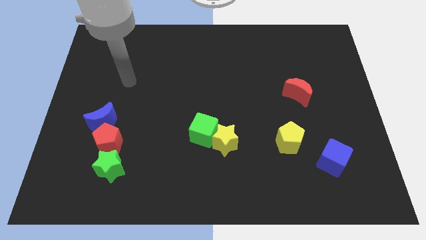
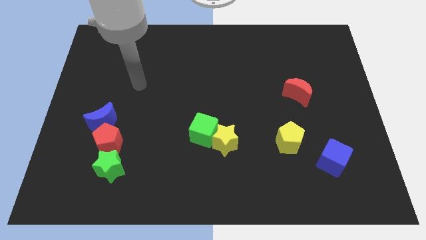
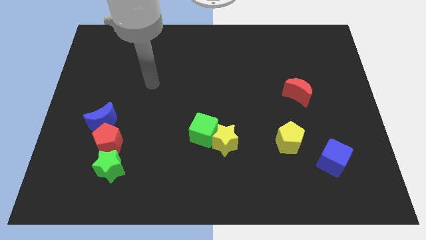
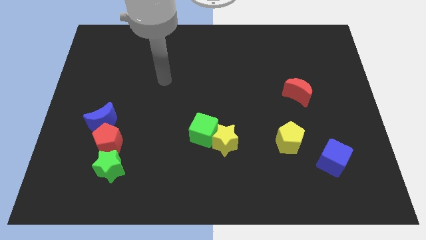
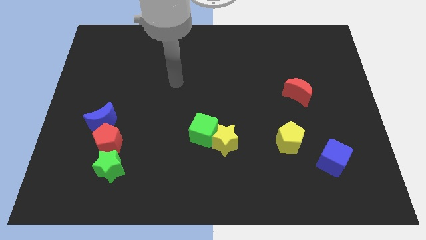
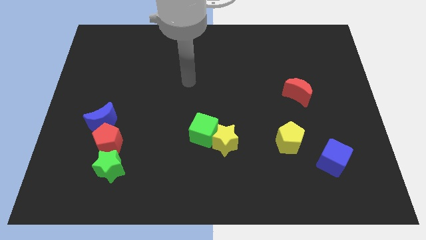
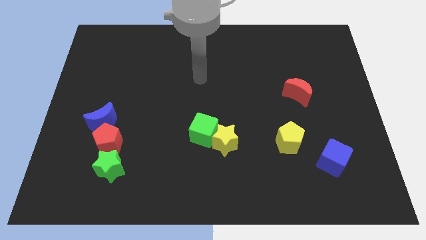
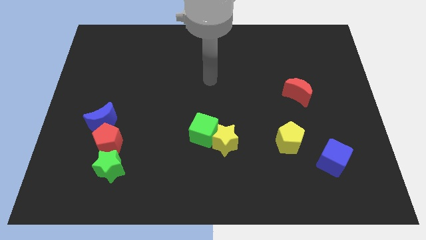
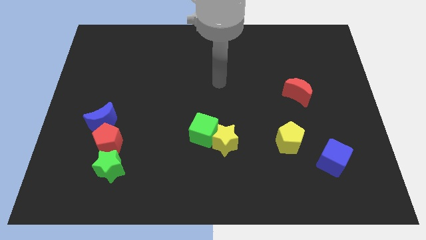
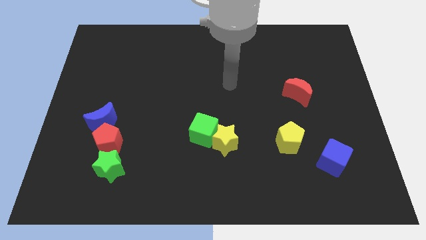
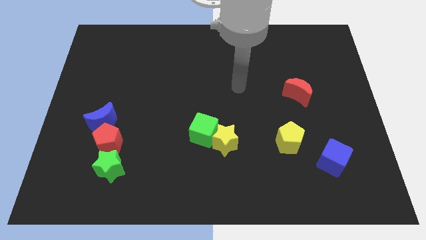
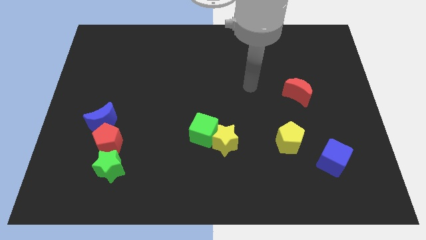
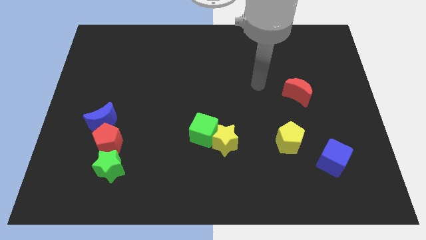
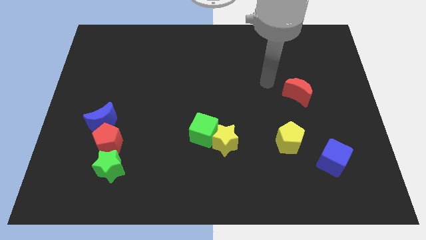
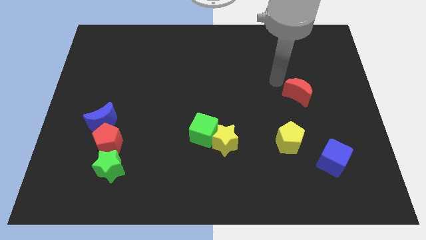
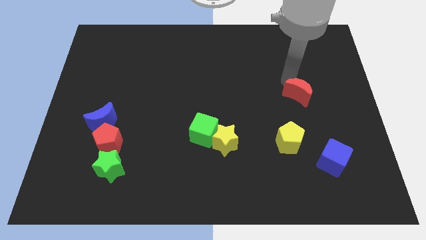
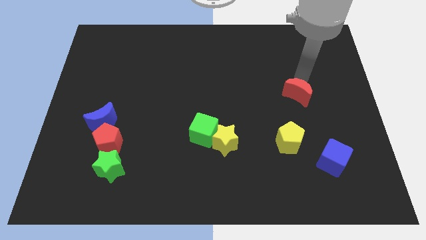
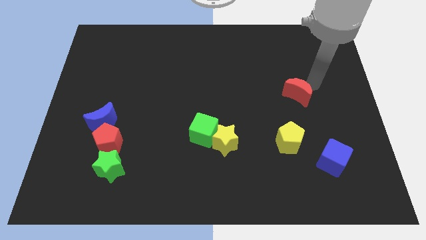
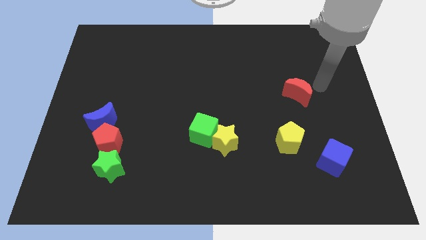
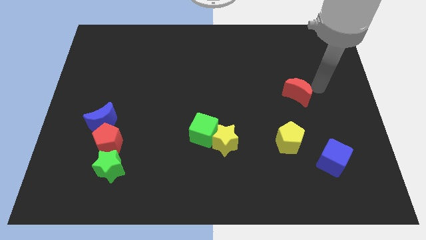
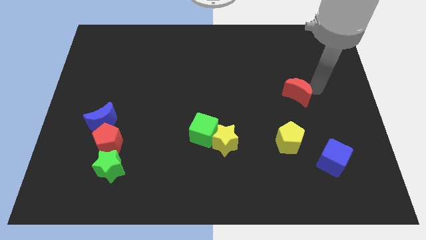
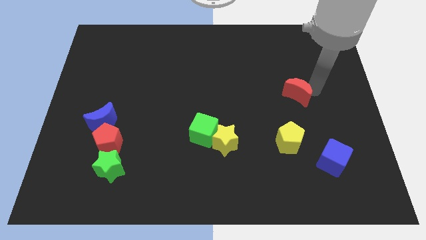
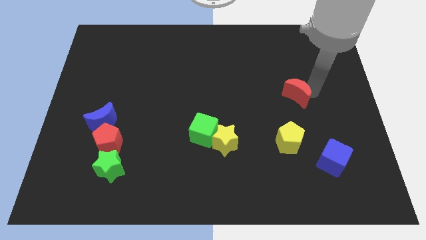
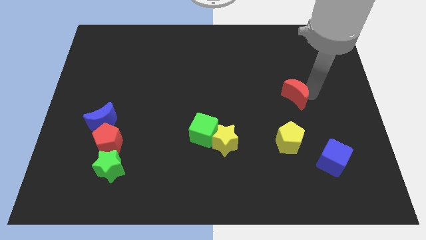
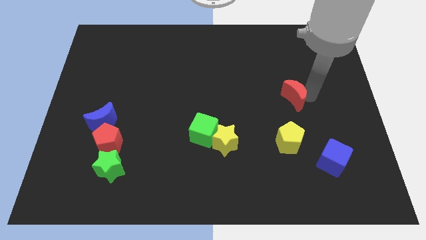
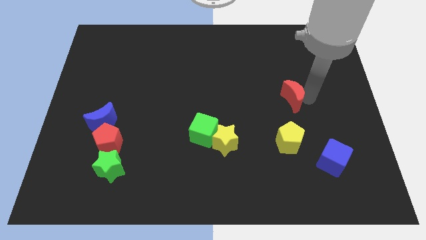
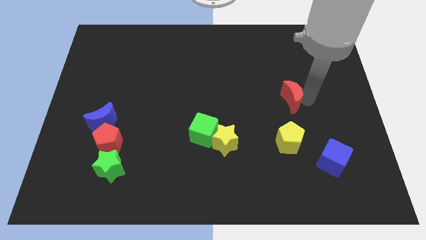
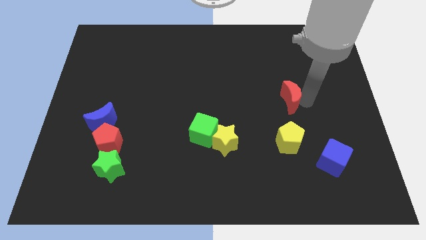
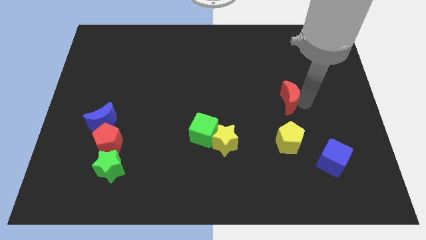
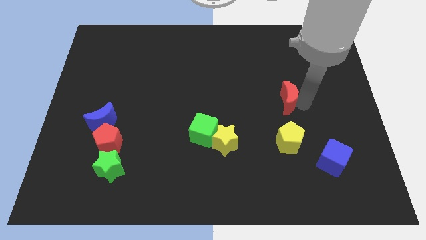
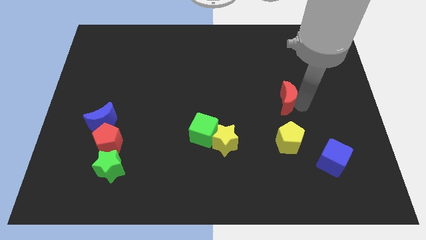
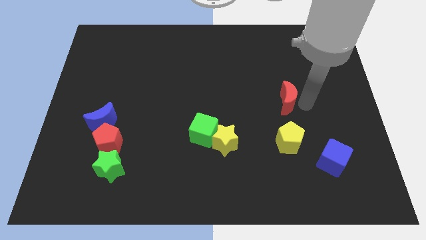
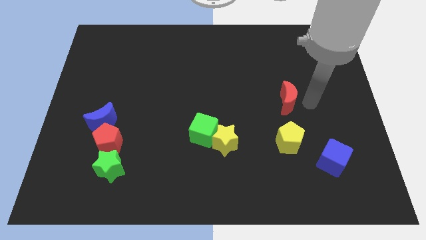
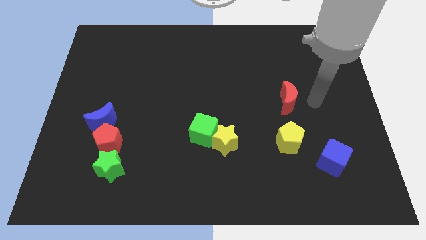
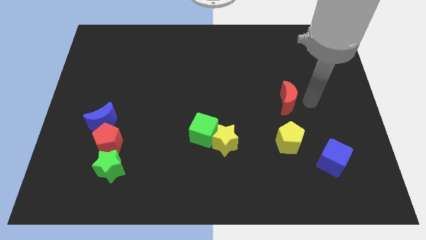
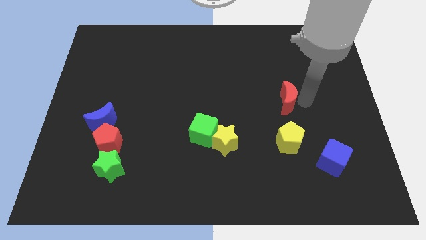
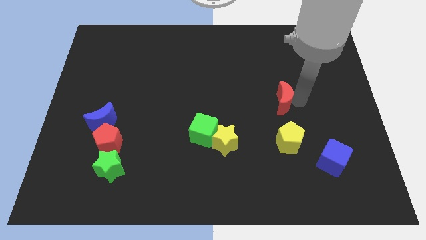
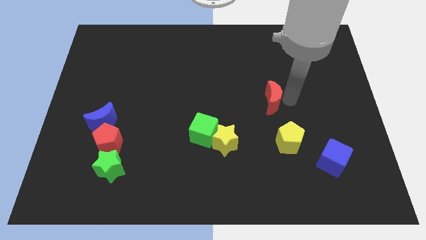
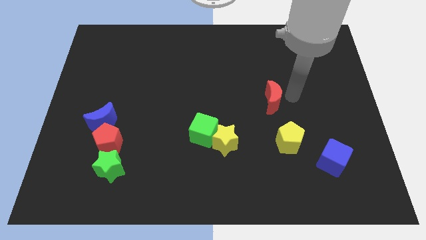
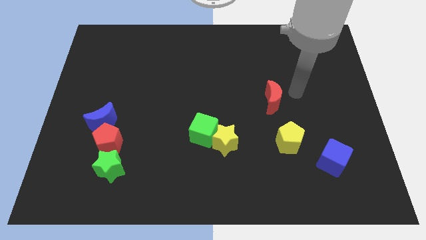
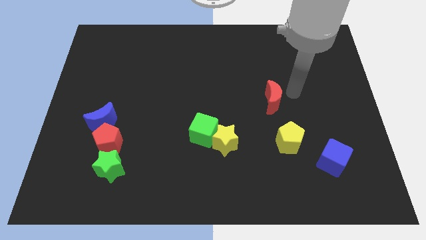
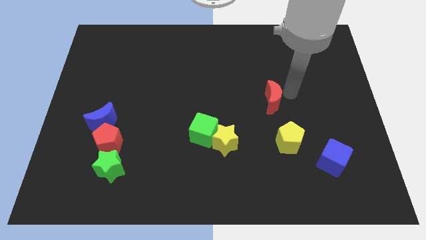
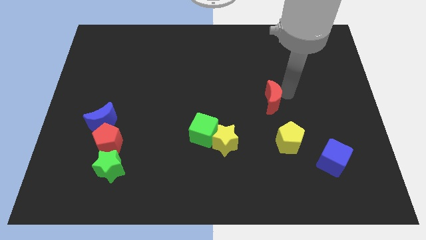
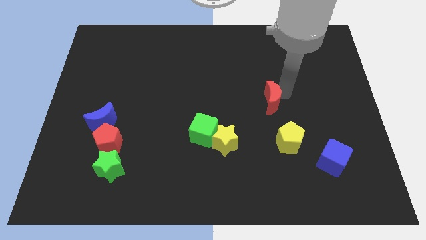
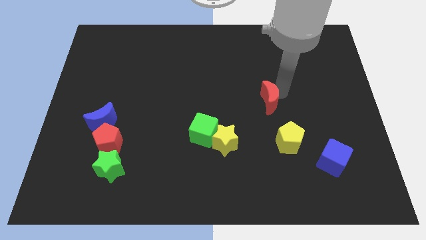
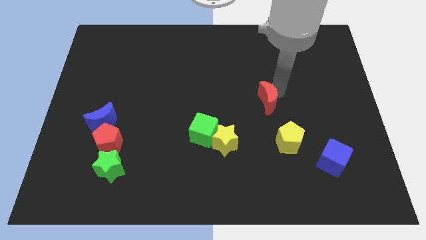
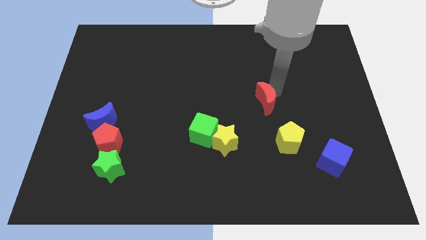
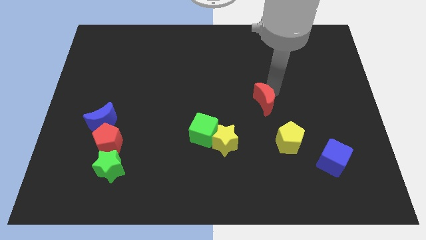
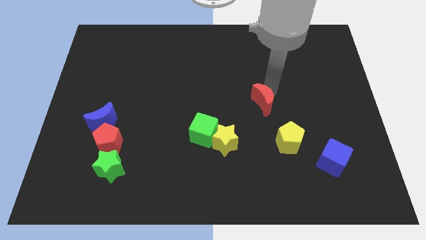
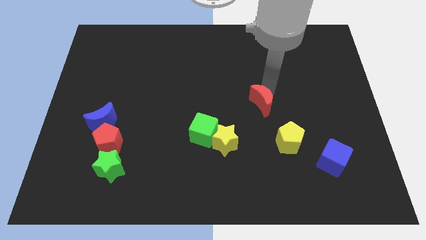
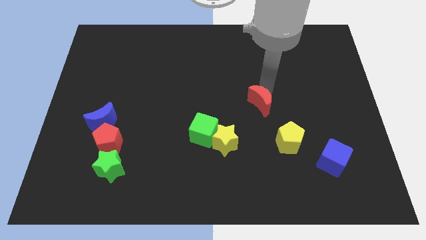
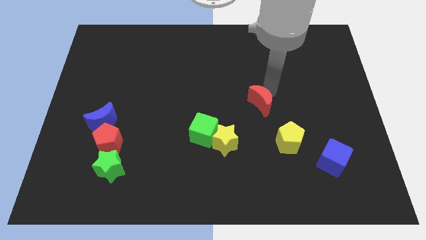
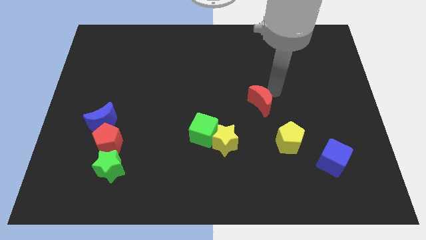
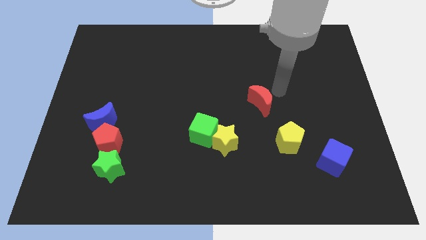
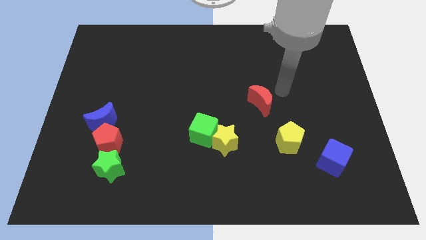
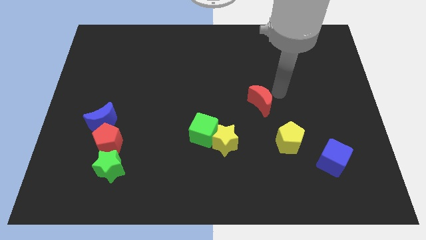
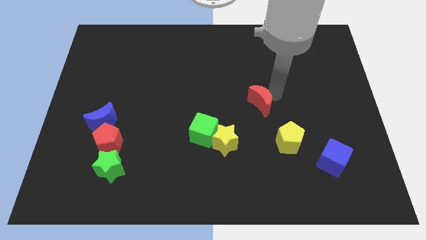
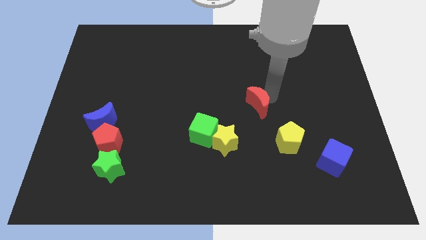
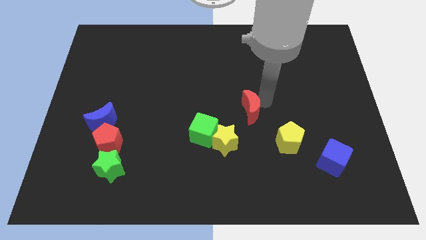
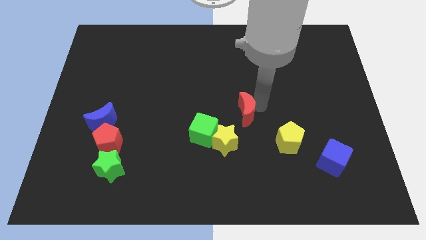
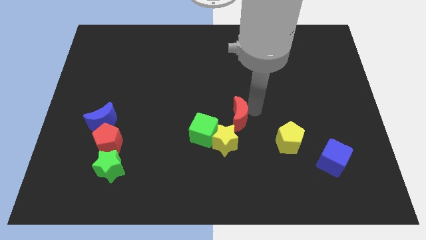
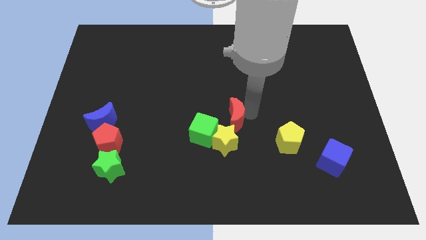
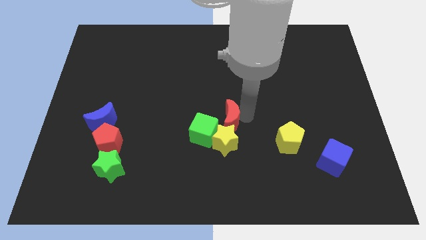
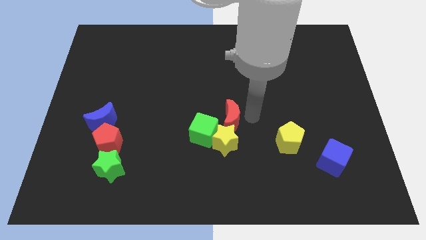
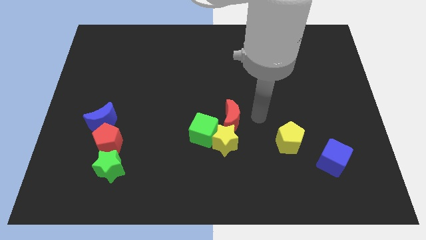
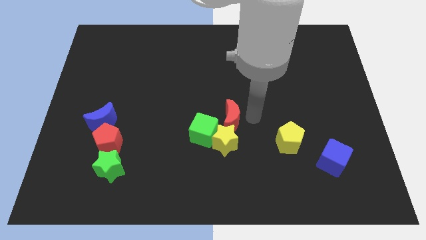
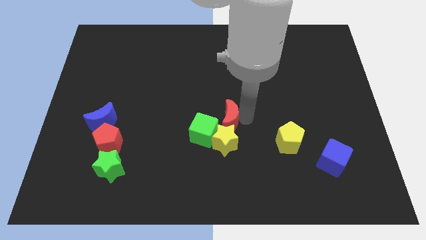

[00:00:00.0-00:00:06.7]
put the red moon diagonally up and to the left of the yellow star
